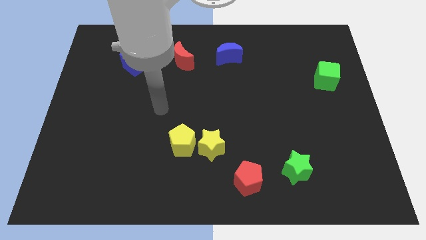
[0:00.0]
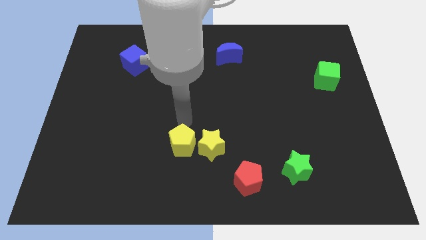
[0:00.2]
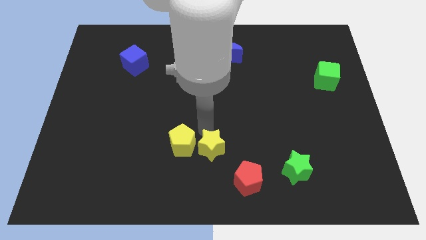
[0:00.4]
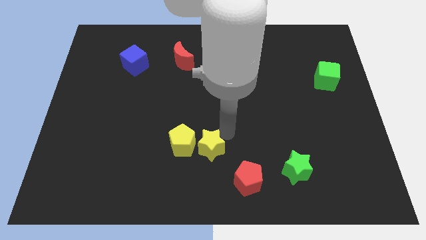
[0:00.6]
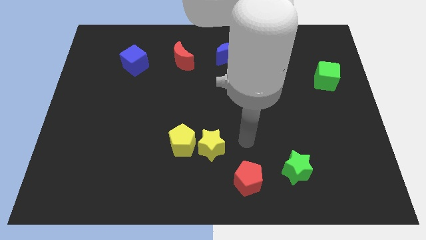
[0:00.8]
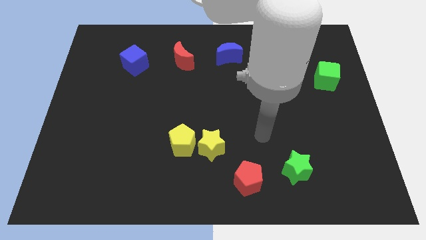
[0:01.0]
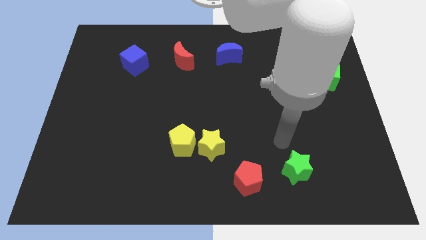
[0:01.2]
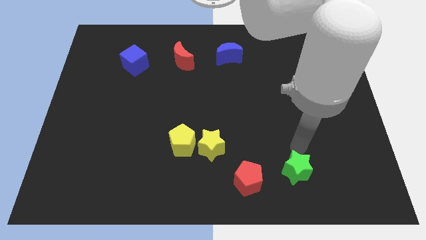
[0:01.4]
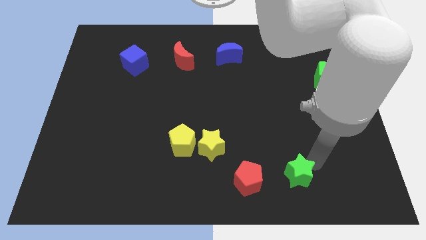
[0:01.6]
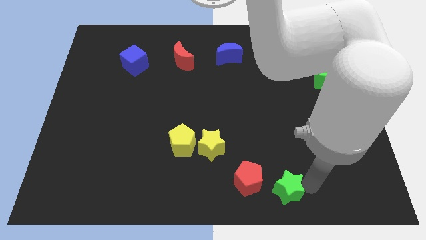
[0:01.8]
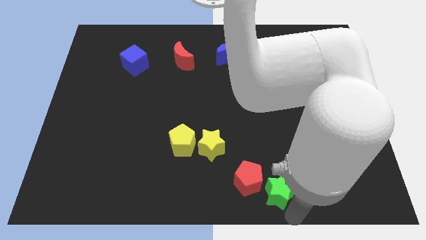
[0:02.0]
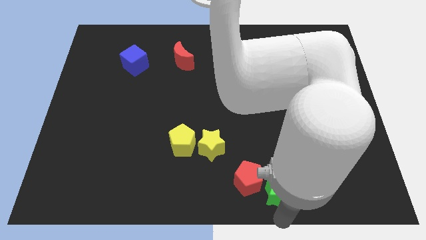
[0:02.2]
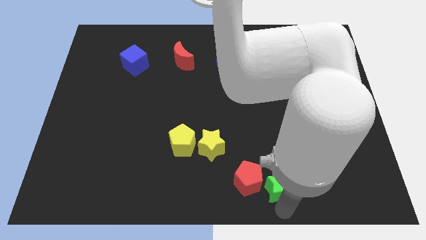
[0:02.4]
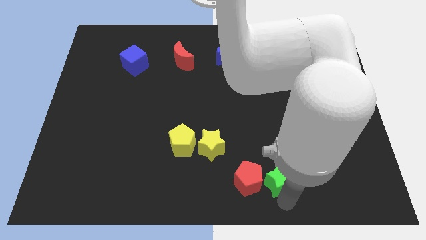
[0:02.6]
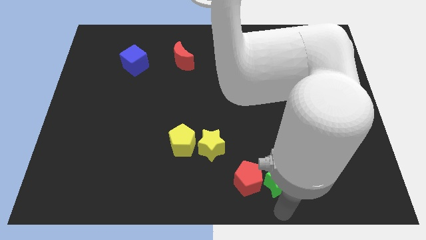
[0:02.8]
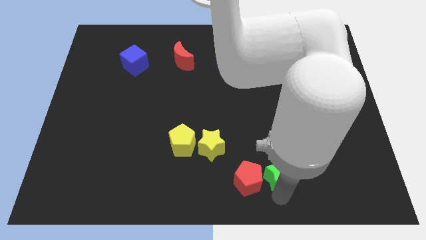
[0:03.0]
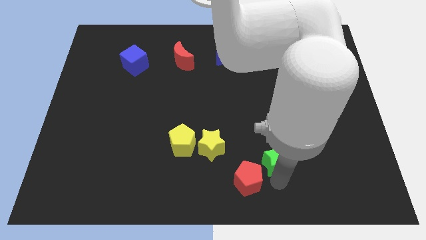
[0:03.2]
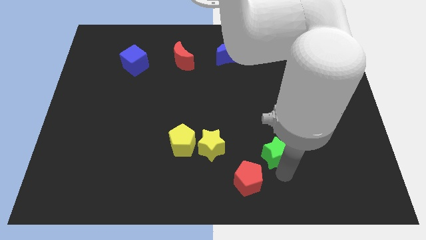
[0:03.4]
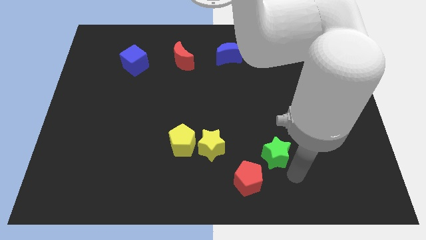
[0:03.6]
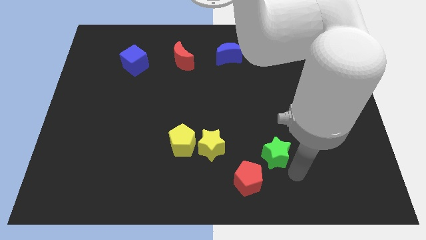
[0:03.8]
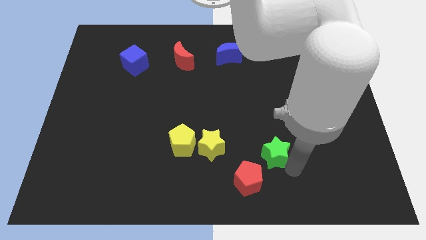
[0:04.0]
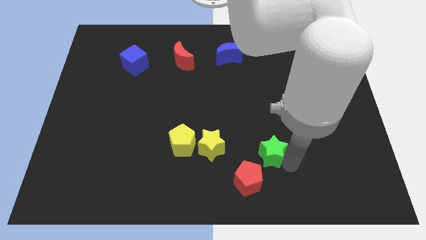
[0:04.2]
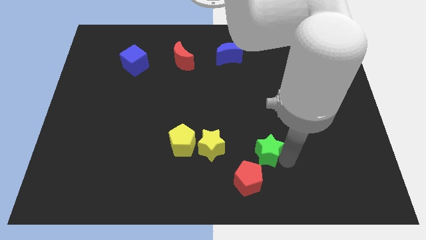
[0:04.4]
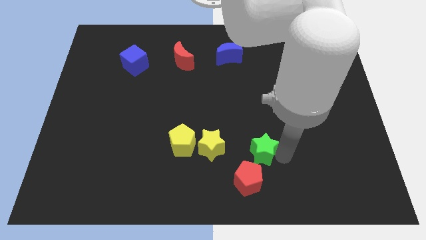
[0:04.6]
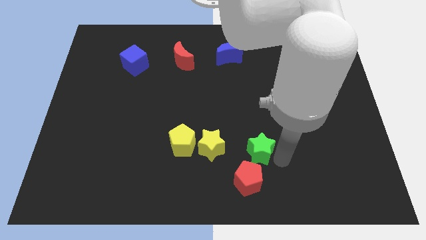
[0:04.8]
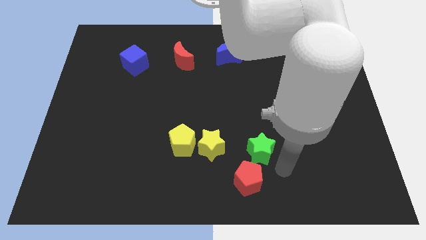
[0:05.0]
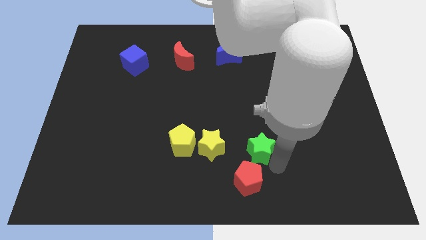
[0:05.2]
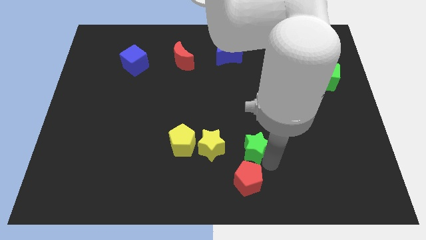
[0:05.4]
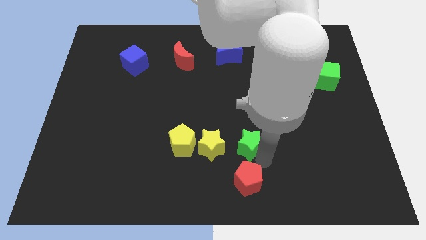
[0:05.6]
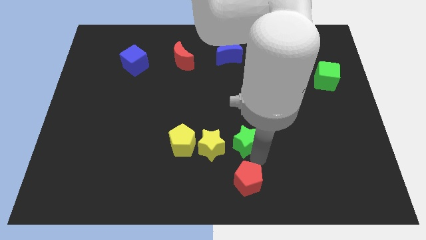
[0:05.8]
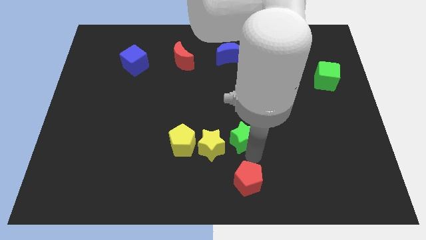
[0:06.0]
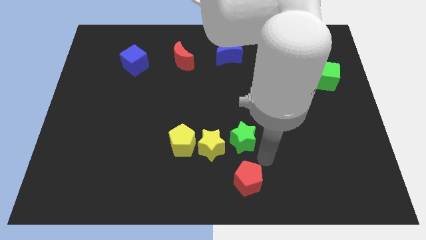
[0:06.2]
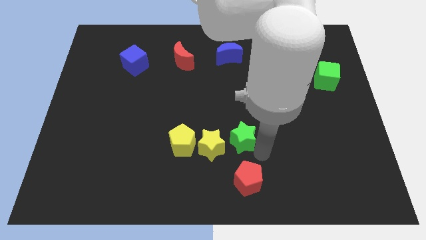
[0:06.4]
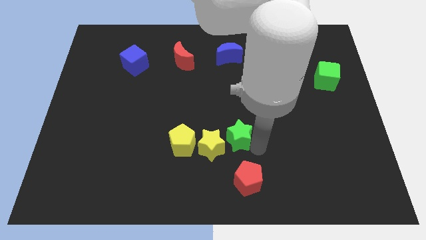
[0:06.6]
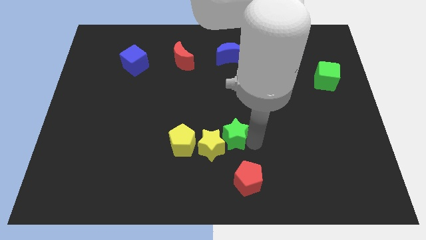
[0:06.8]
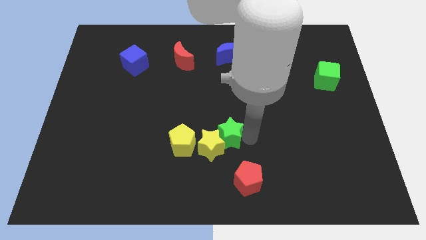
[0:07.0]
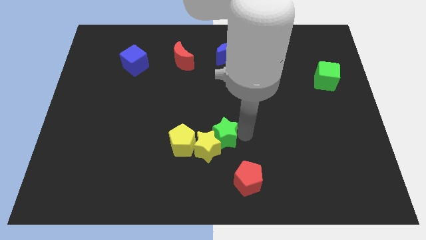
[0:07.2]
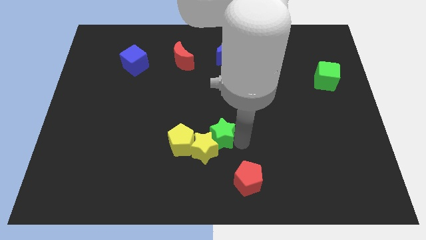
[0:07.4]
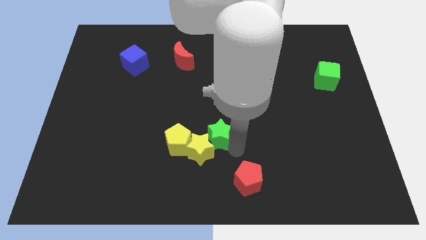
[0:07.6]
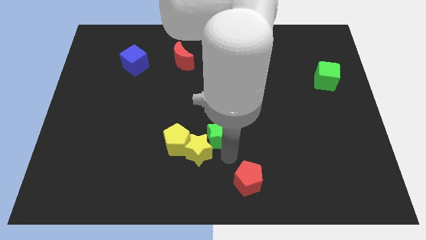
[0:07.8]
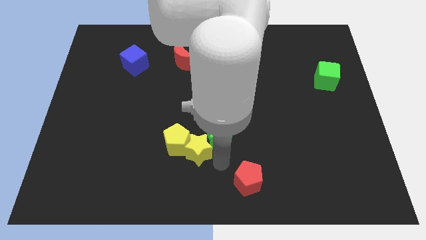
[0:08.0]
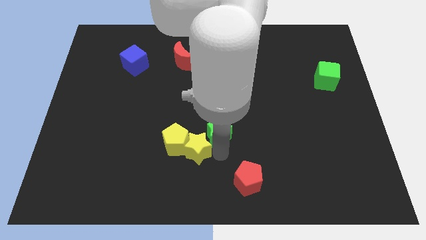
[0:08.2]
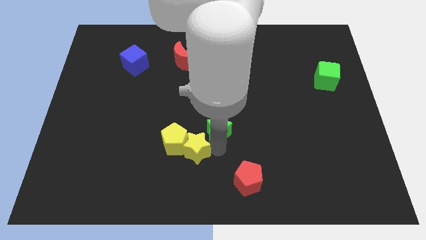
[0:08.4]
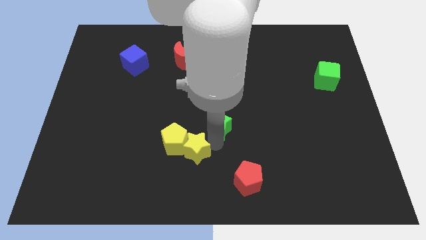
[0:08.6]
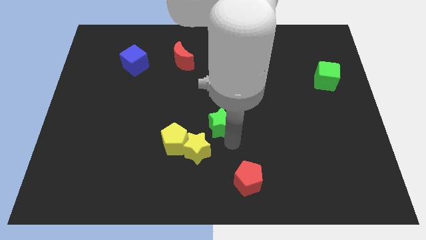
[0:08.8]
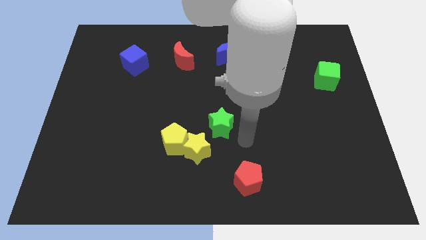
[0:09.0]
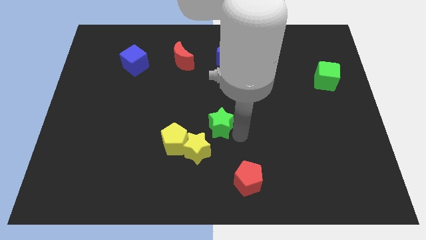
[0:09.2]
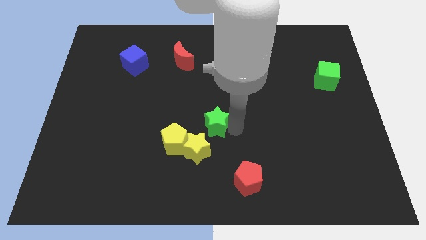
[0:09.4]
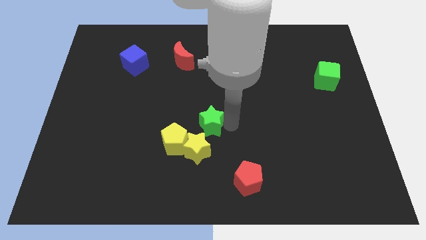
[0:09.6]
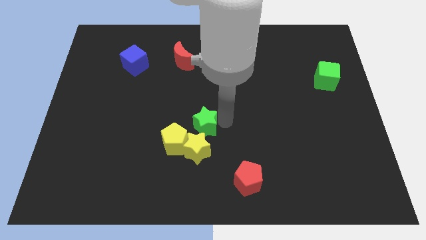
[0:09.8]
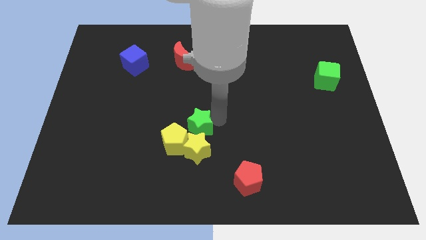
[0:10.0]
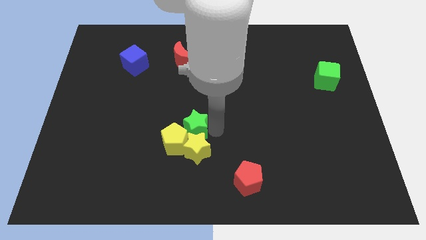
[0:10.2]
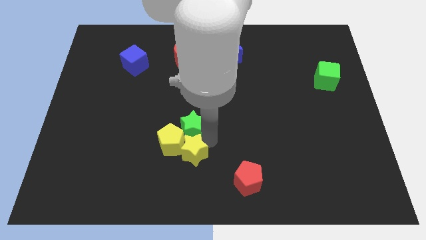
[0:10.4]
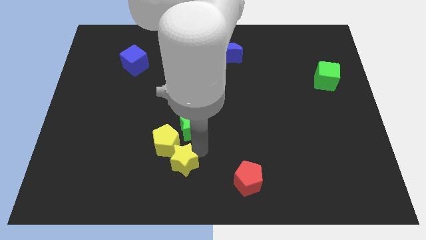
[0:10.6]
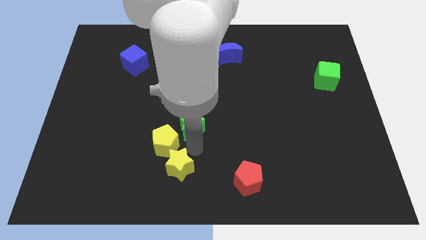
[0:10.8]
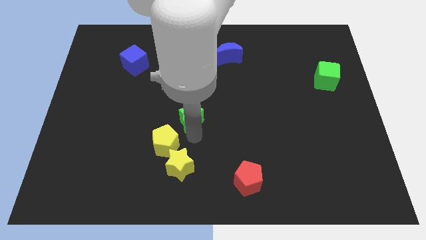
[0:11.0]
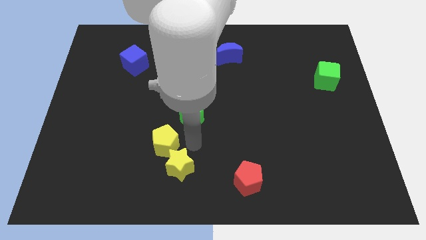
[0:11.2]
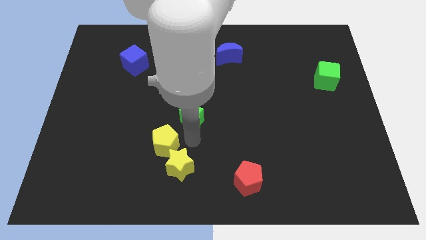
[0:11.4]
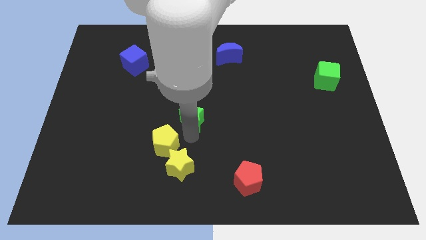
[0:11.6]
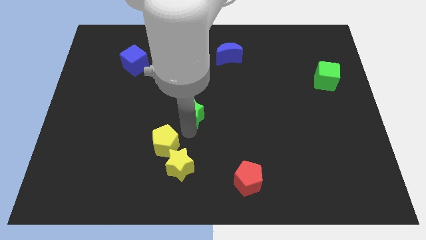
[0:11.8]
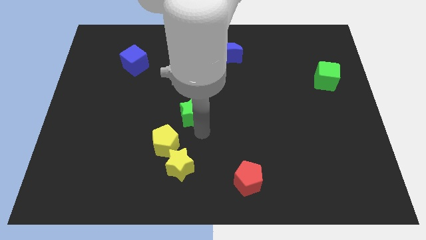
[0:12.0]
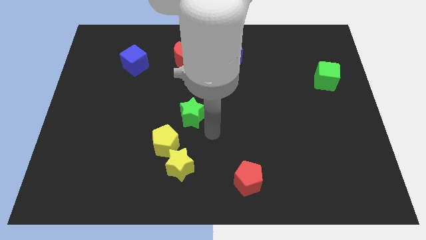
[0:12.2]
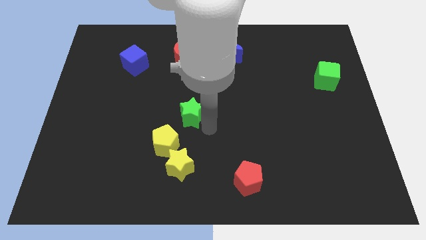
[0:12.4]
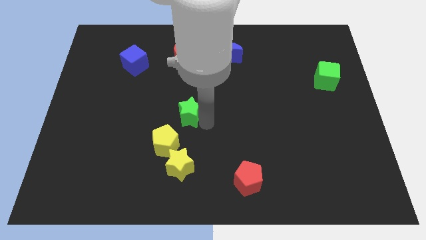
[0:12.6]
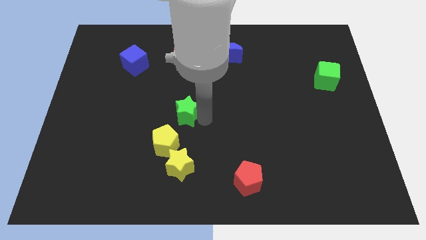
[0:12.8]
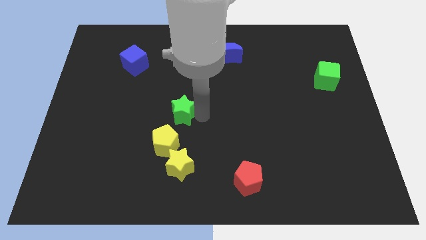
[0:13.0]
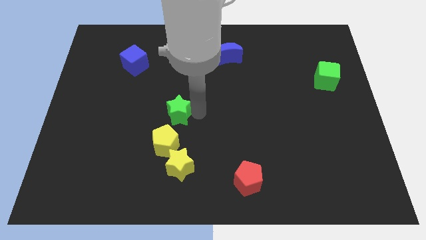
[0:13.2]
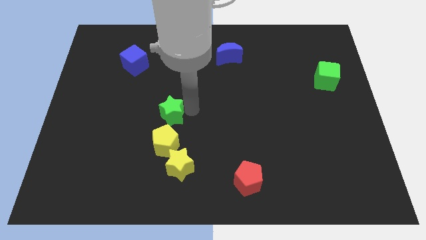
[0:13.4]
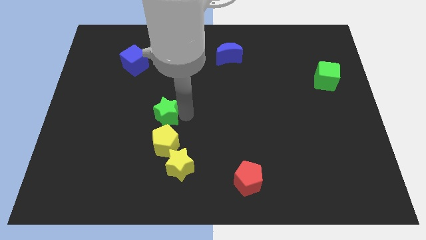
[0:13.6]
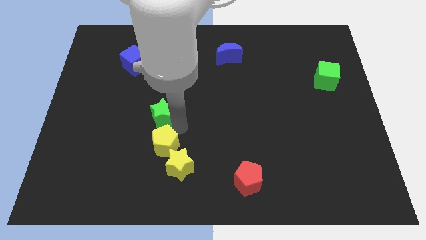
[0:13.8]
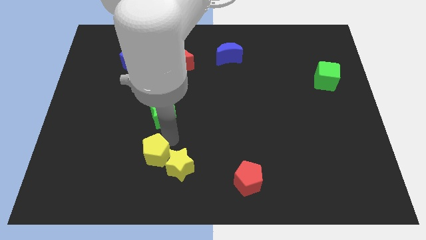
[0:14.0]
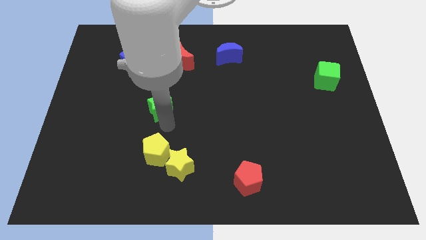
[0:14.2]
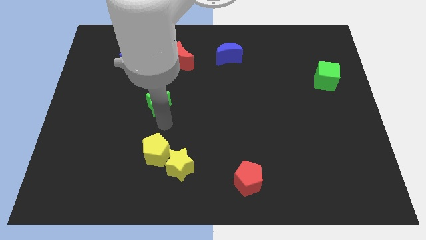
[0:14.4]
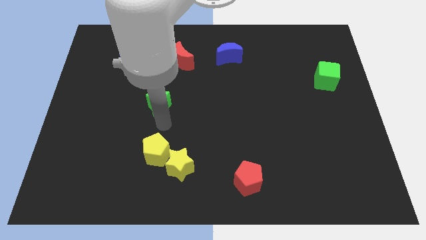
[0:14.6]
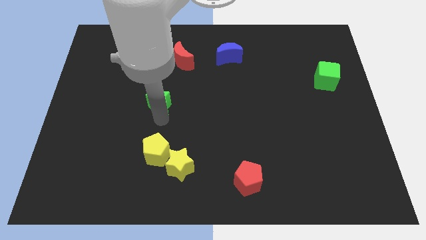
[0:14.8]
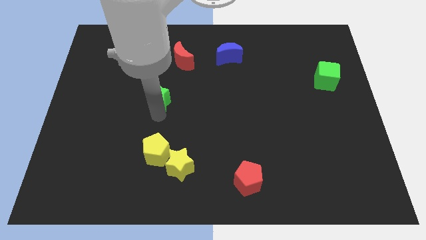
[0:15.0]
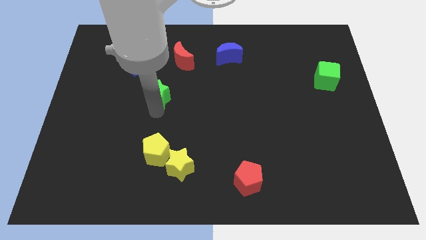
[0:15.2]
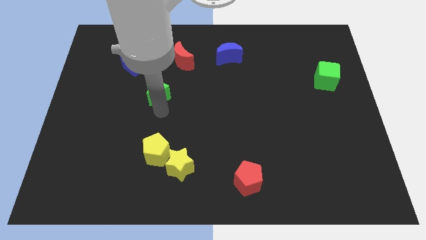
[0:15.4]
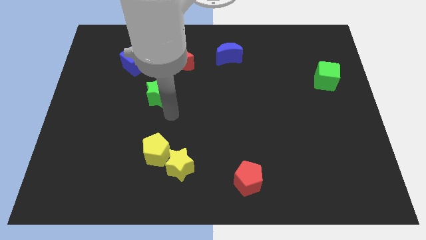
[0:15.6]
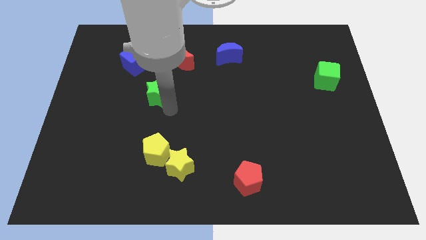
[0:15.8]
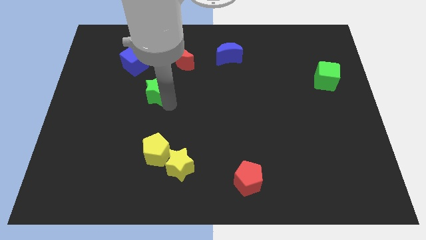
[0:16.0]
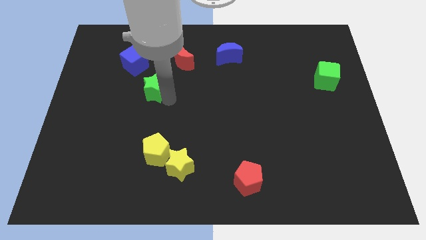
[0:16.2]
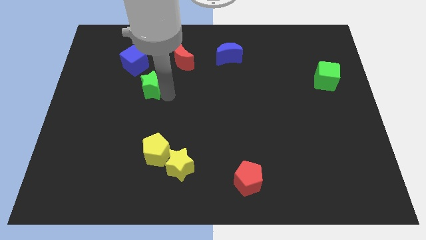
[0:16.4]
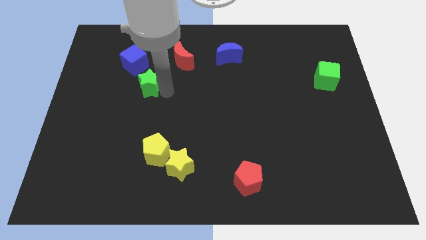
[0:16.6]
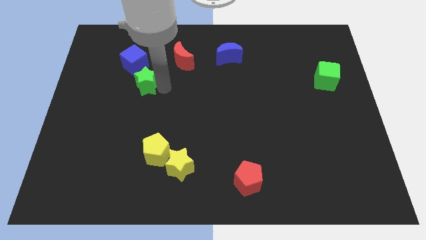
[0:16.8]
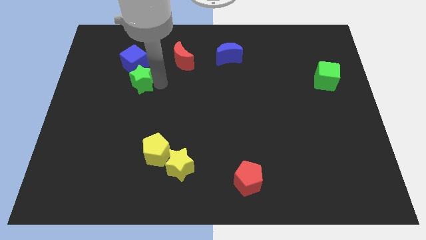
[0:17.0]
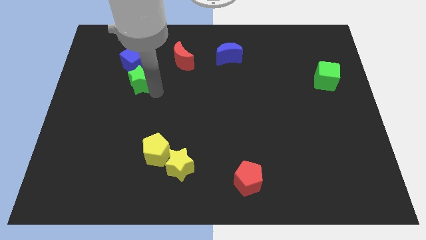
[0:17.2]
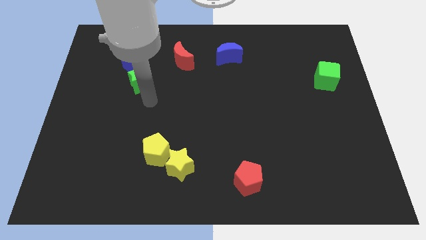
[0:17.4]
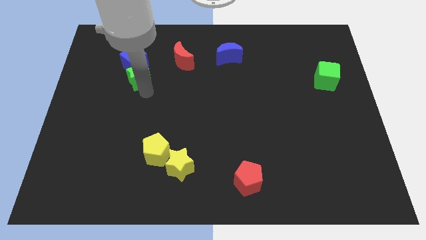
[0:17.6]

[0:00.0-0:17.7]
put the green star close to the blue cube
